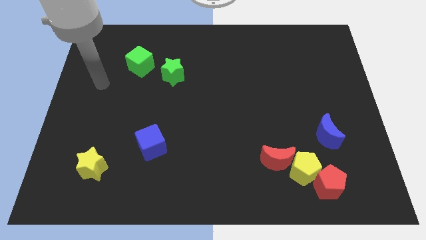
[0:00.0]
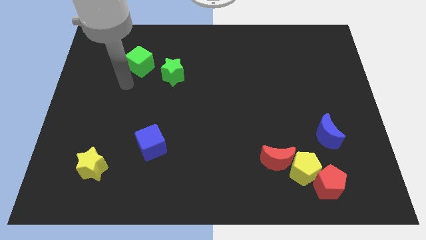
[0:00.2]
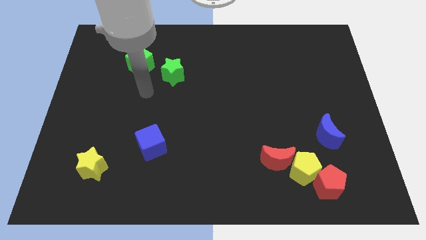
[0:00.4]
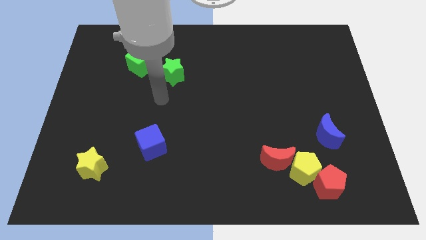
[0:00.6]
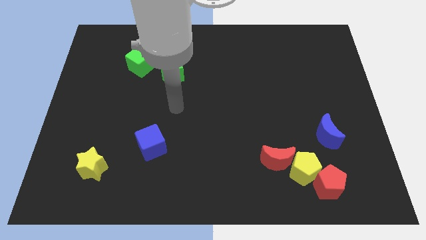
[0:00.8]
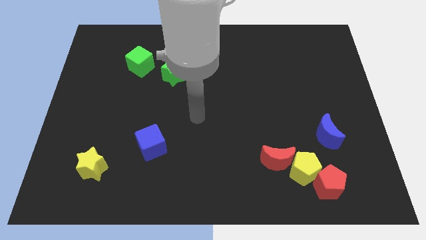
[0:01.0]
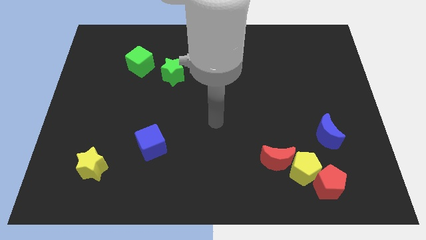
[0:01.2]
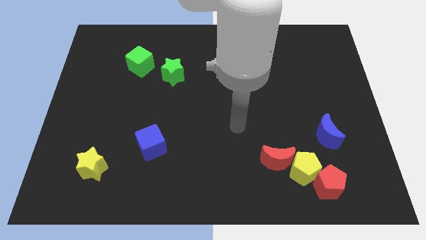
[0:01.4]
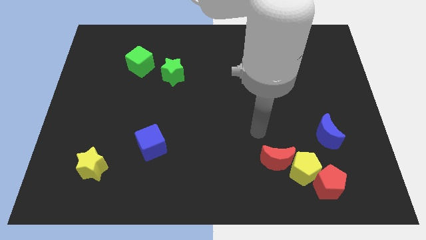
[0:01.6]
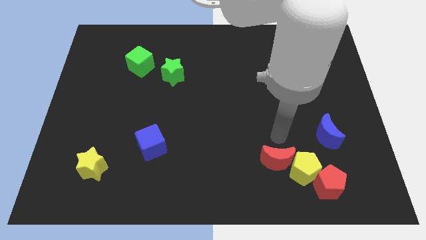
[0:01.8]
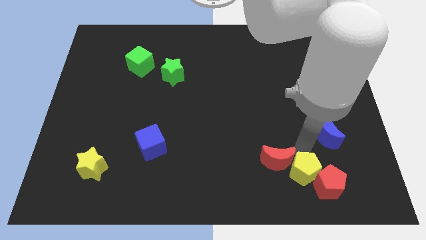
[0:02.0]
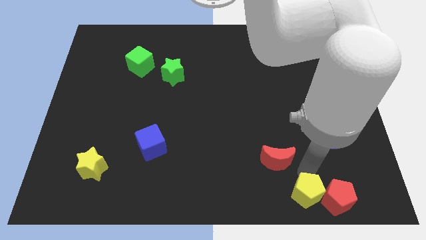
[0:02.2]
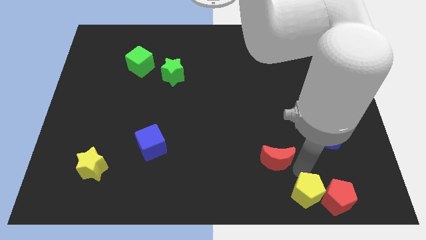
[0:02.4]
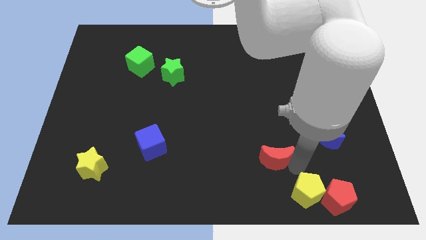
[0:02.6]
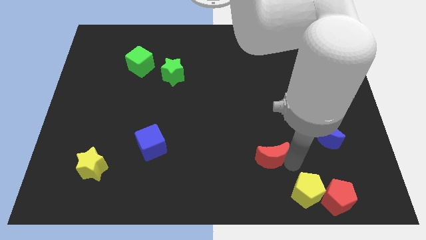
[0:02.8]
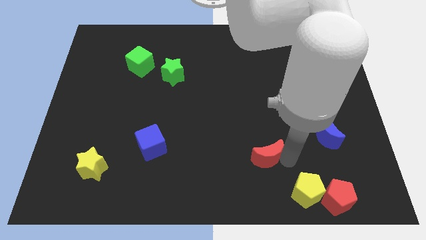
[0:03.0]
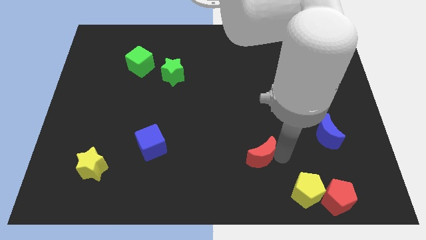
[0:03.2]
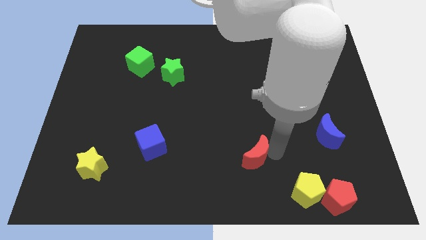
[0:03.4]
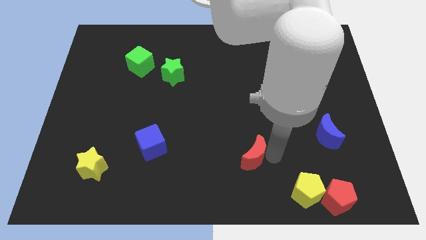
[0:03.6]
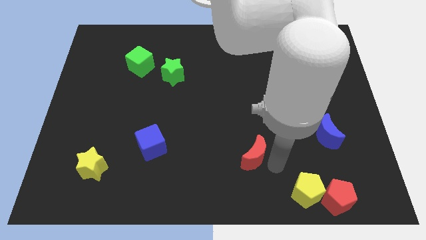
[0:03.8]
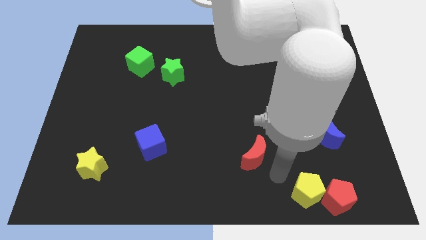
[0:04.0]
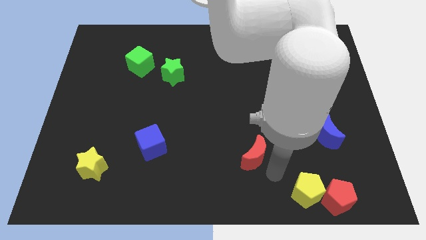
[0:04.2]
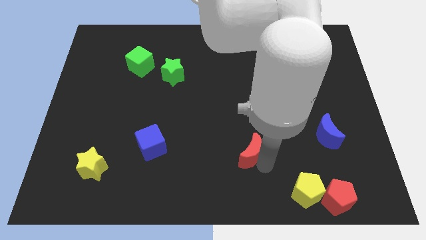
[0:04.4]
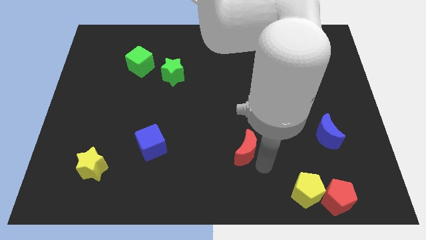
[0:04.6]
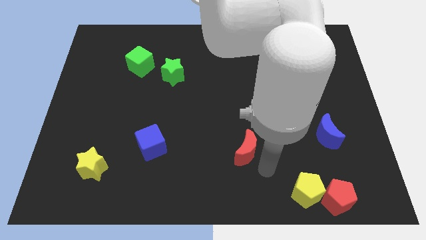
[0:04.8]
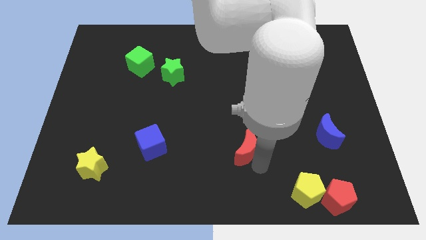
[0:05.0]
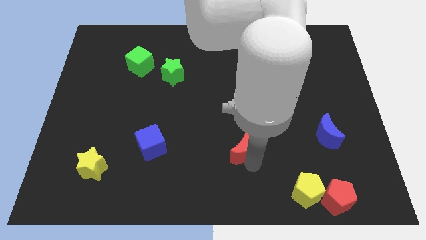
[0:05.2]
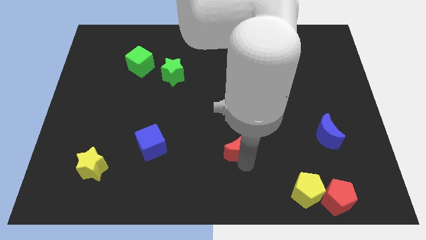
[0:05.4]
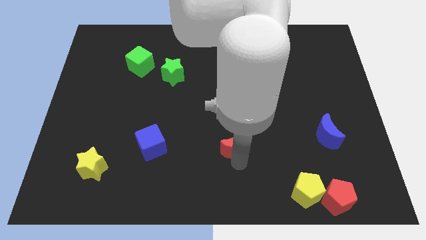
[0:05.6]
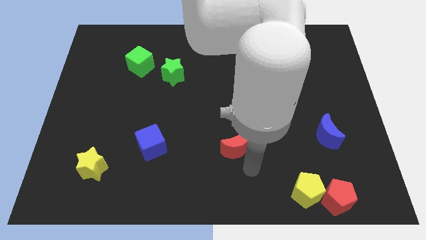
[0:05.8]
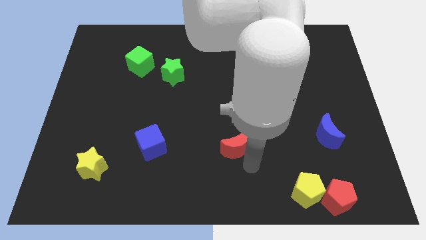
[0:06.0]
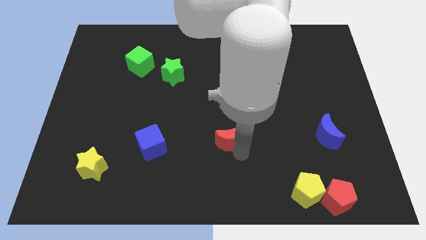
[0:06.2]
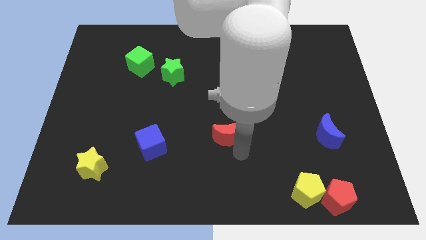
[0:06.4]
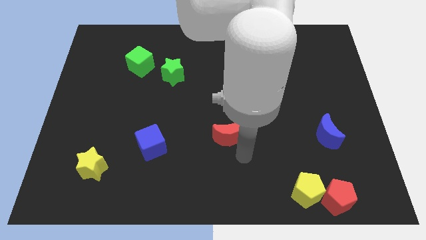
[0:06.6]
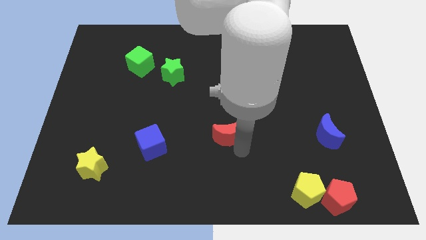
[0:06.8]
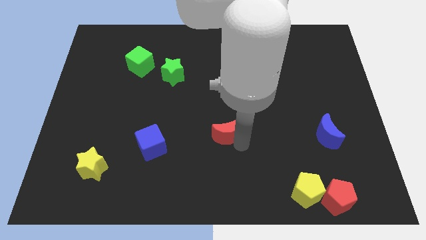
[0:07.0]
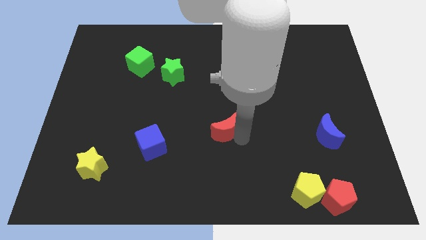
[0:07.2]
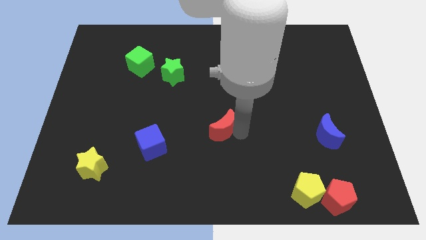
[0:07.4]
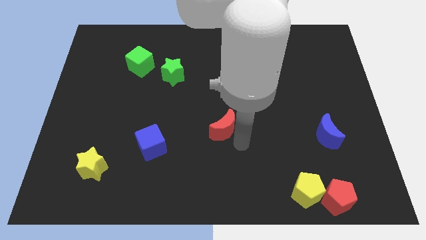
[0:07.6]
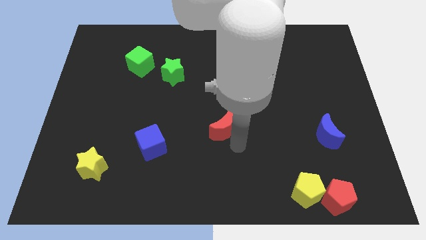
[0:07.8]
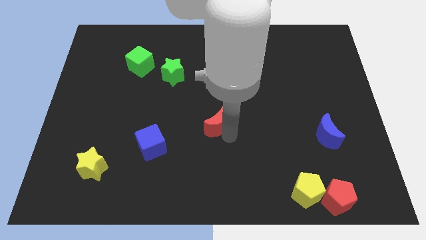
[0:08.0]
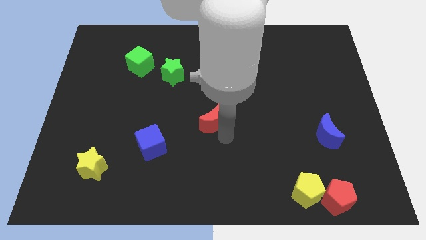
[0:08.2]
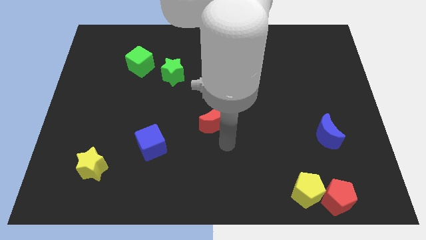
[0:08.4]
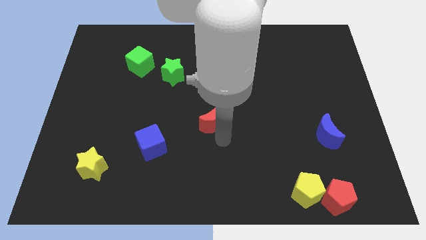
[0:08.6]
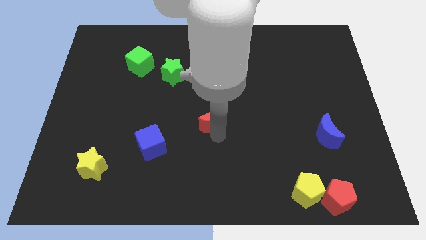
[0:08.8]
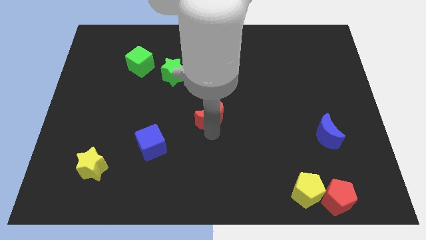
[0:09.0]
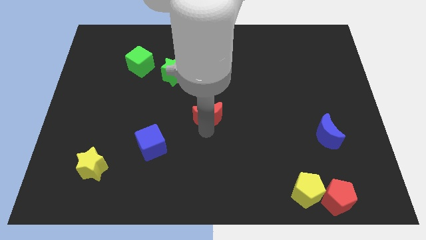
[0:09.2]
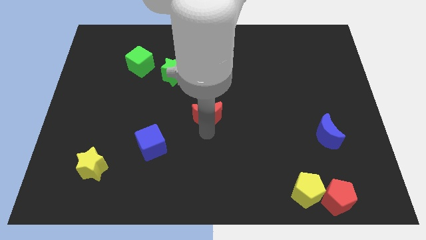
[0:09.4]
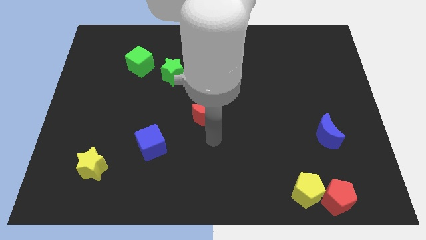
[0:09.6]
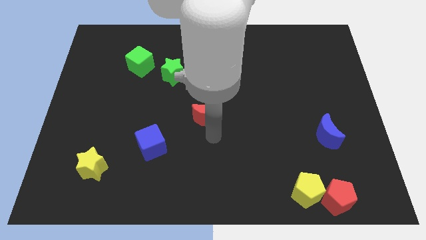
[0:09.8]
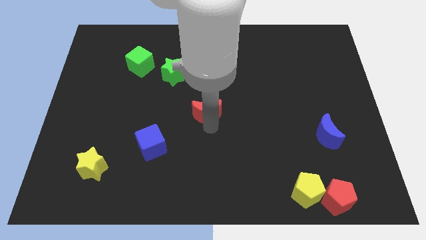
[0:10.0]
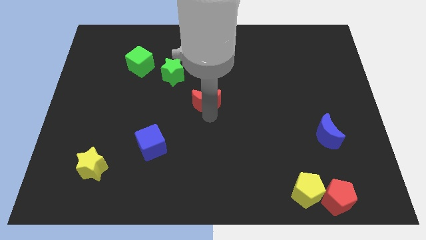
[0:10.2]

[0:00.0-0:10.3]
put the red moon diagonally down and to the right of the green star

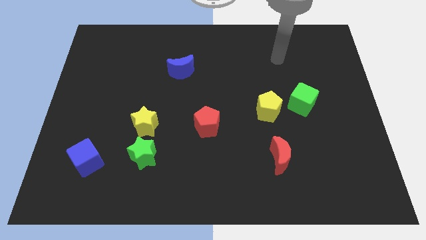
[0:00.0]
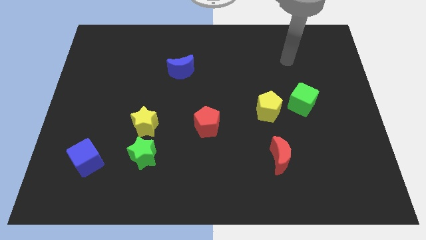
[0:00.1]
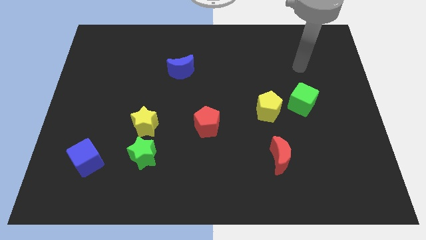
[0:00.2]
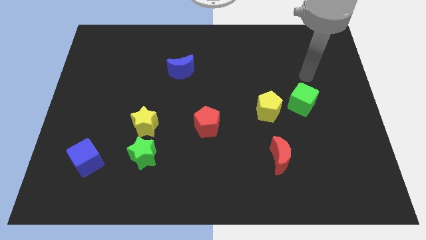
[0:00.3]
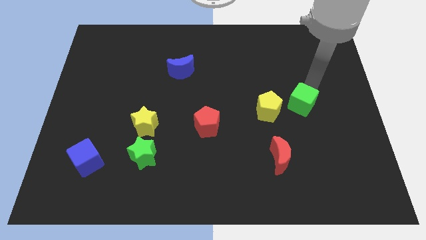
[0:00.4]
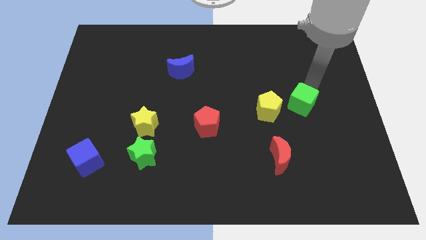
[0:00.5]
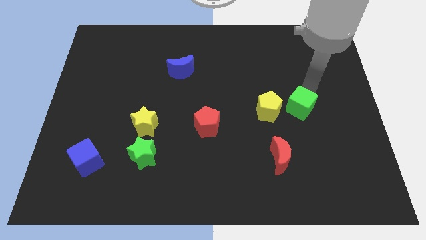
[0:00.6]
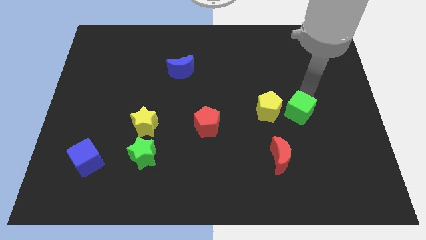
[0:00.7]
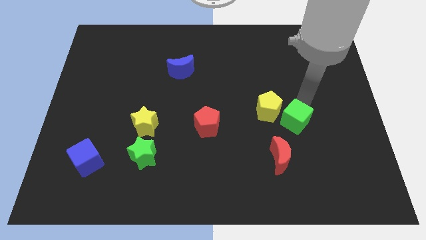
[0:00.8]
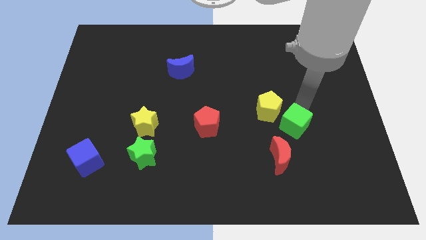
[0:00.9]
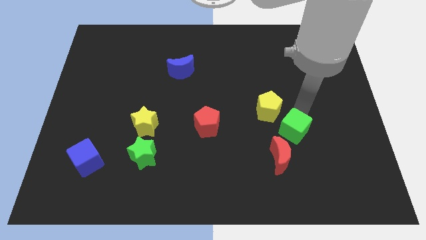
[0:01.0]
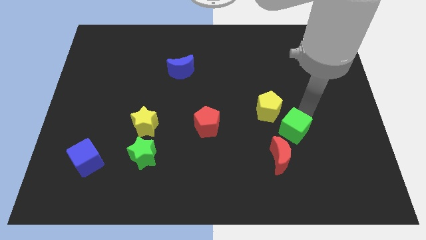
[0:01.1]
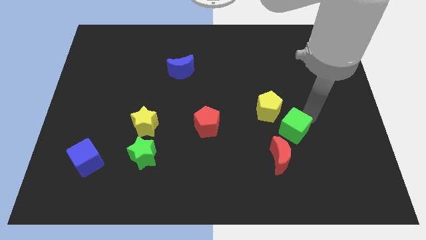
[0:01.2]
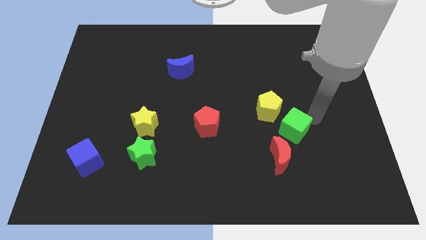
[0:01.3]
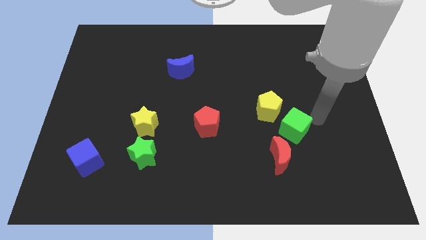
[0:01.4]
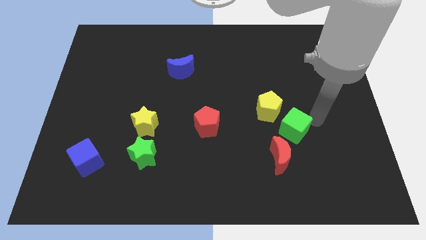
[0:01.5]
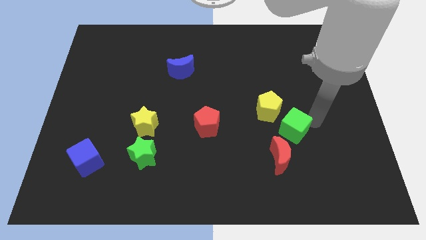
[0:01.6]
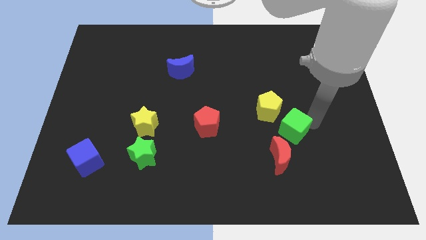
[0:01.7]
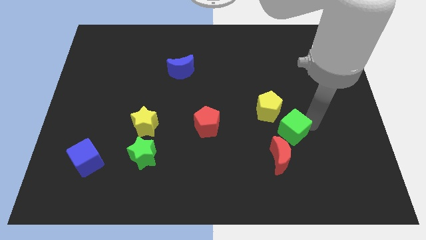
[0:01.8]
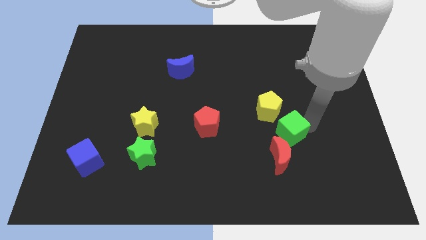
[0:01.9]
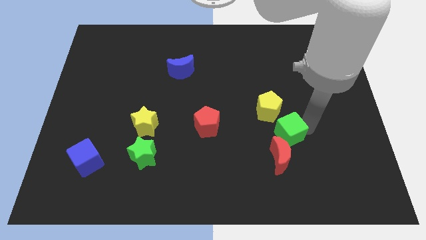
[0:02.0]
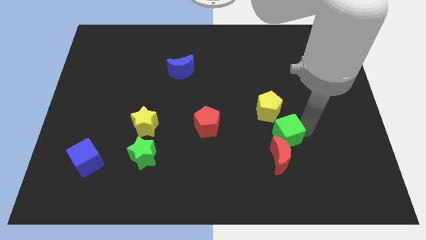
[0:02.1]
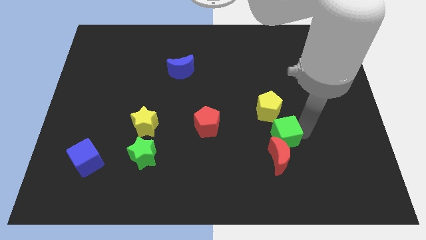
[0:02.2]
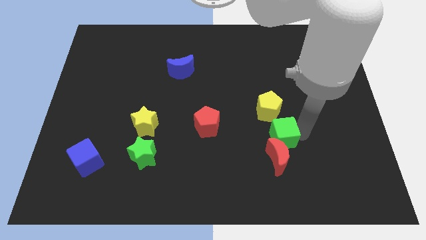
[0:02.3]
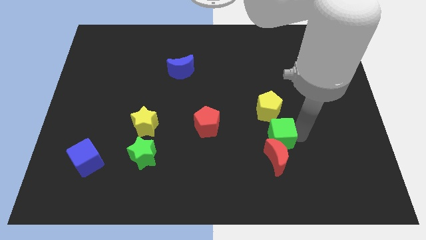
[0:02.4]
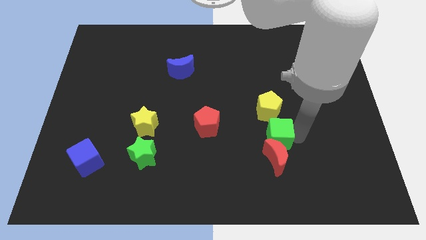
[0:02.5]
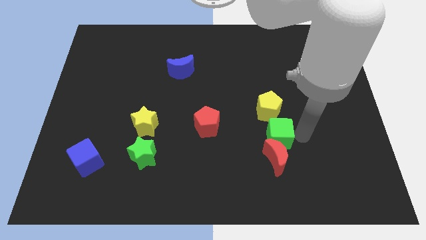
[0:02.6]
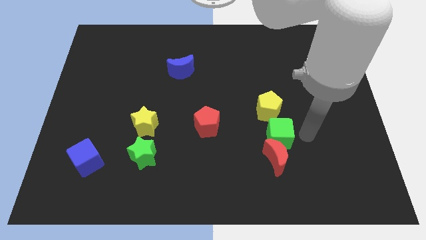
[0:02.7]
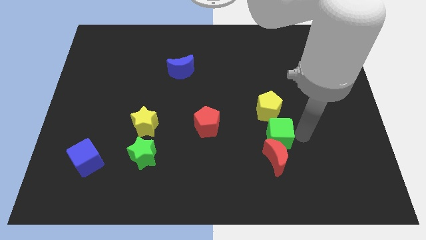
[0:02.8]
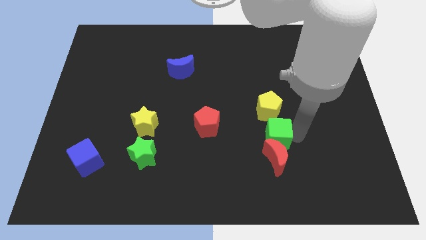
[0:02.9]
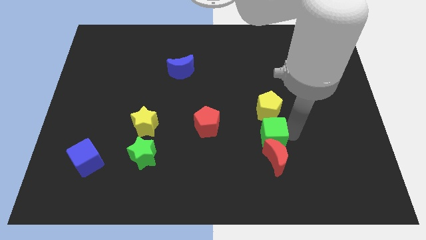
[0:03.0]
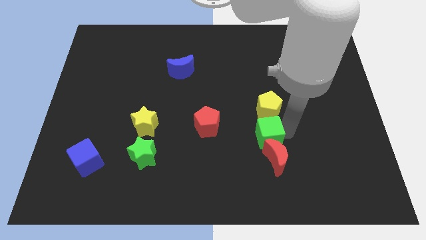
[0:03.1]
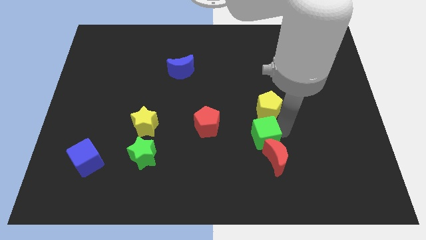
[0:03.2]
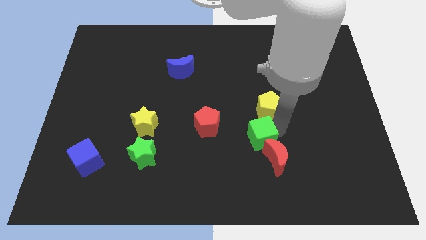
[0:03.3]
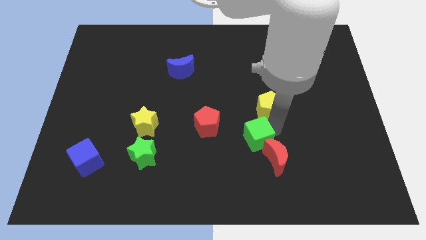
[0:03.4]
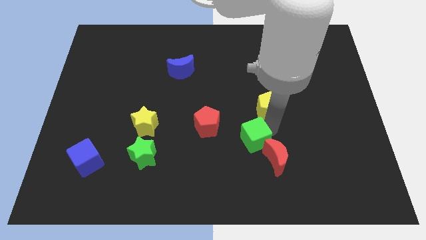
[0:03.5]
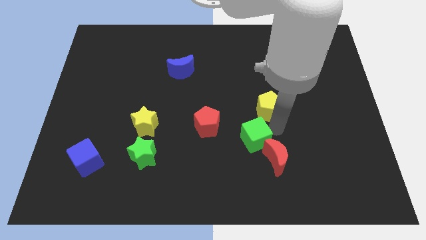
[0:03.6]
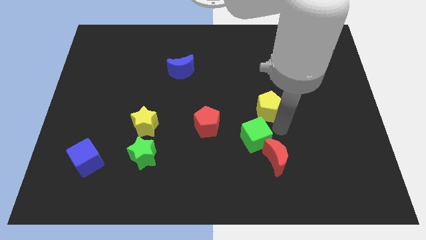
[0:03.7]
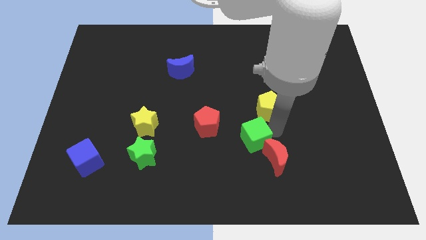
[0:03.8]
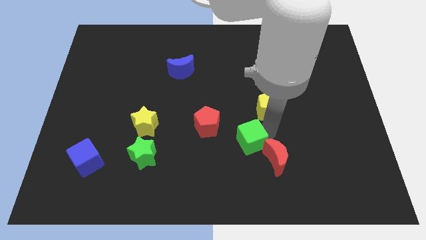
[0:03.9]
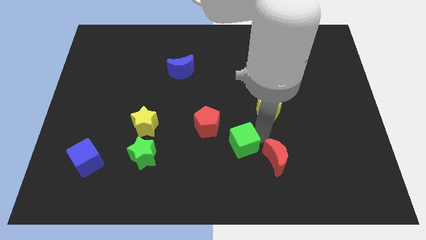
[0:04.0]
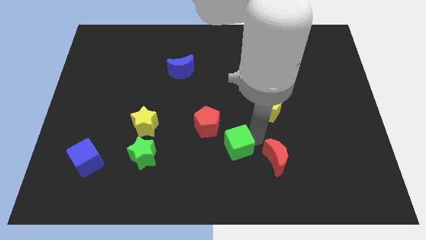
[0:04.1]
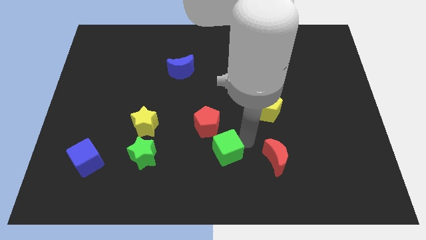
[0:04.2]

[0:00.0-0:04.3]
move the green cube to the bottom of the red pentagon
